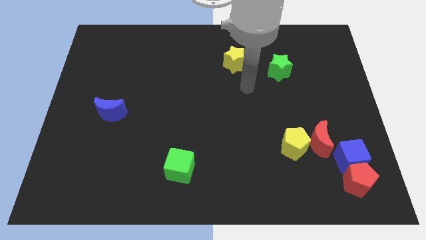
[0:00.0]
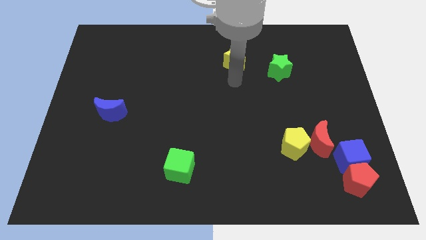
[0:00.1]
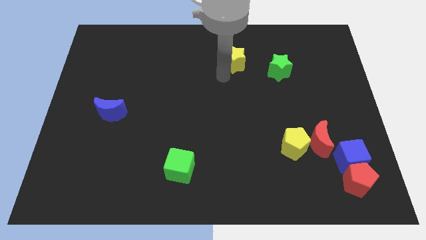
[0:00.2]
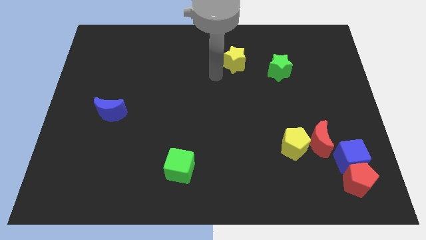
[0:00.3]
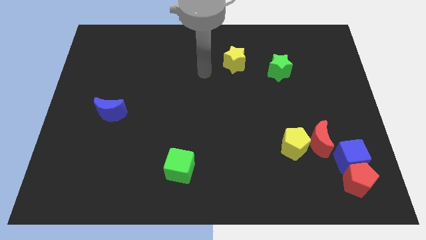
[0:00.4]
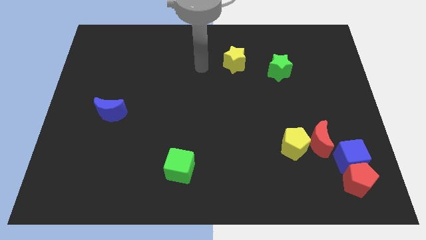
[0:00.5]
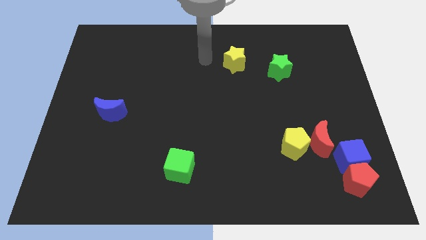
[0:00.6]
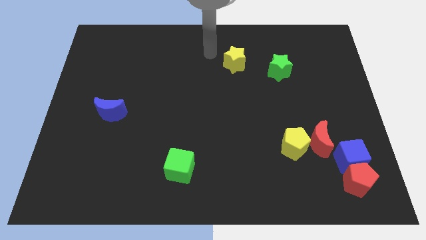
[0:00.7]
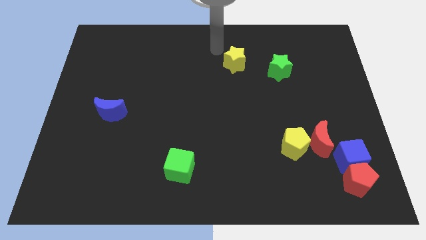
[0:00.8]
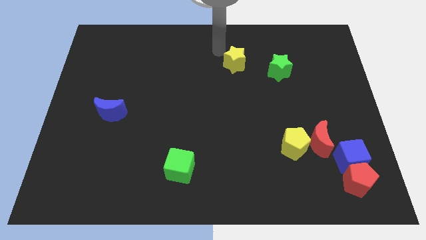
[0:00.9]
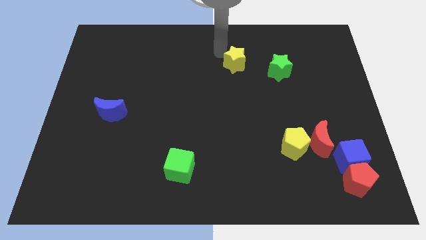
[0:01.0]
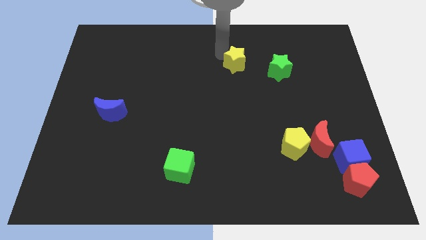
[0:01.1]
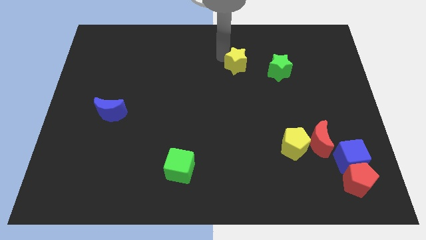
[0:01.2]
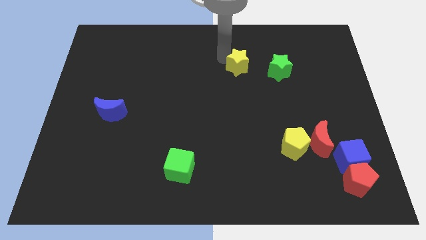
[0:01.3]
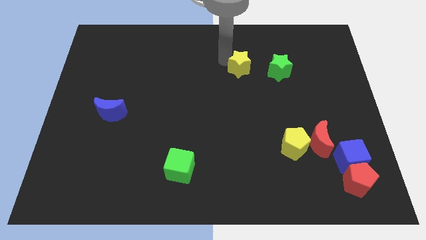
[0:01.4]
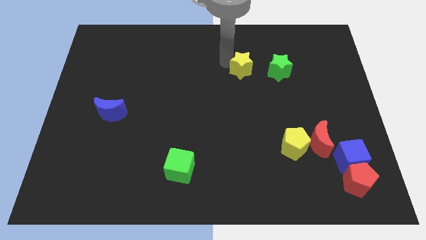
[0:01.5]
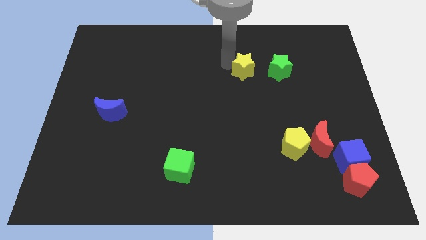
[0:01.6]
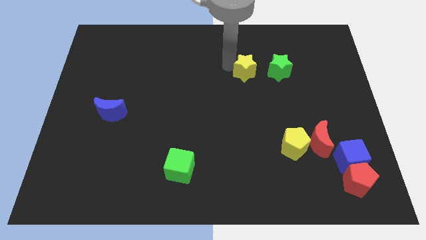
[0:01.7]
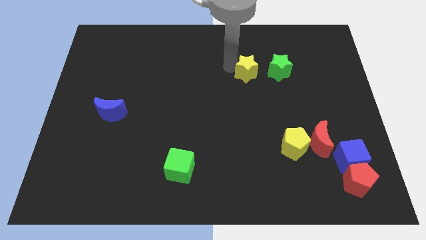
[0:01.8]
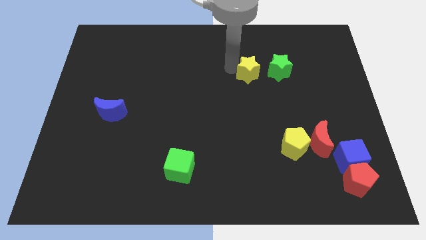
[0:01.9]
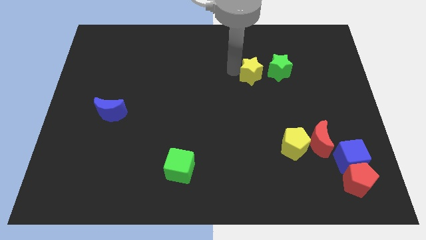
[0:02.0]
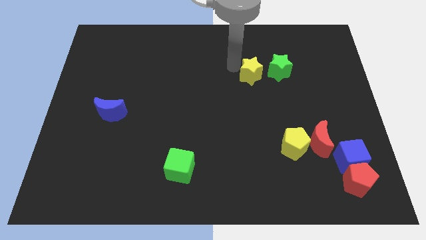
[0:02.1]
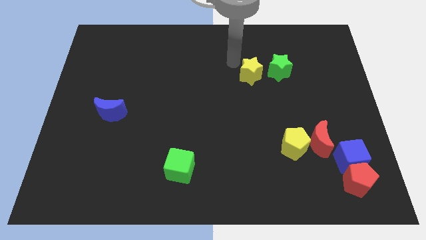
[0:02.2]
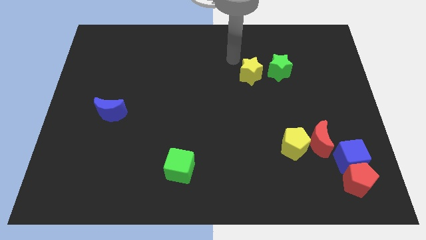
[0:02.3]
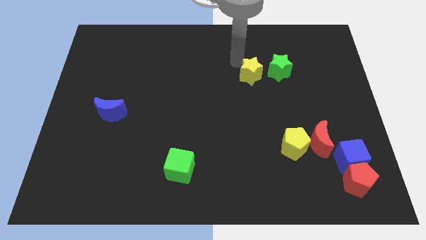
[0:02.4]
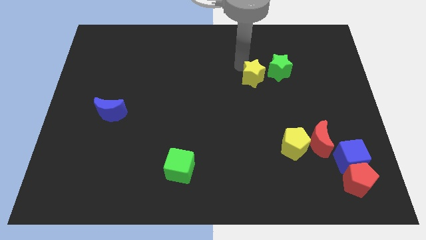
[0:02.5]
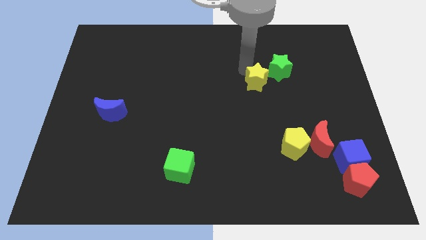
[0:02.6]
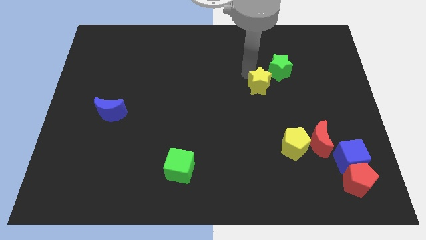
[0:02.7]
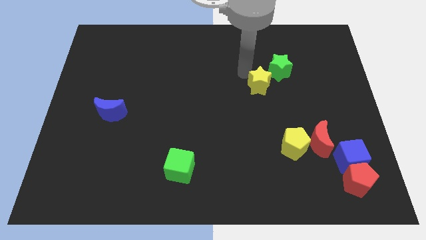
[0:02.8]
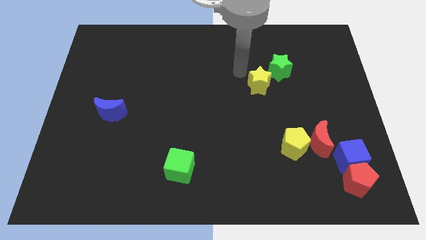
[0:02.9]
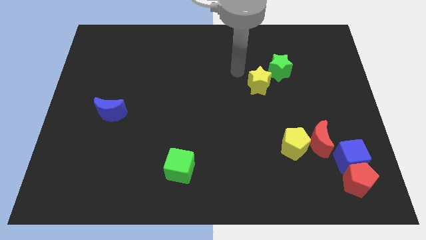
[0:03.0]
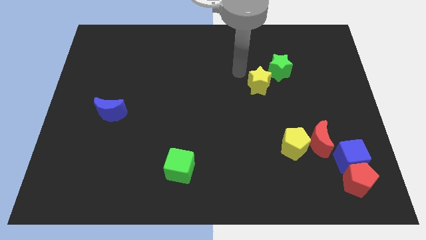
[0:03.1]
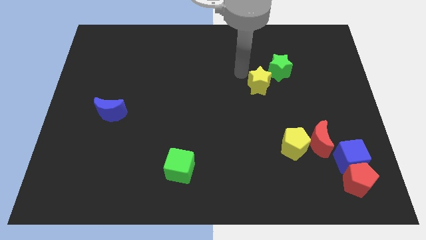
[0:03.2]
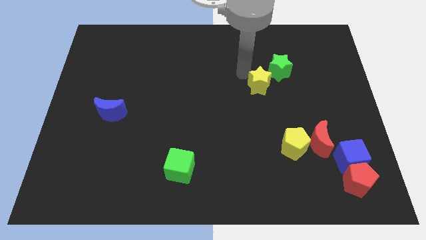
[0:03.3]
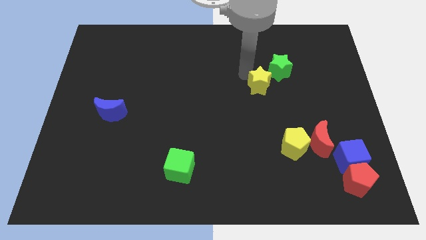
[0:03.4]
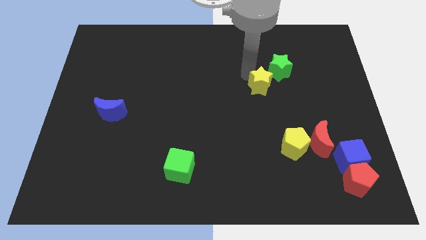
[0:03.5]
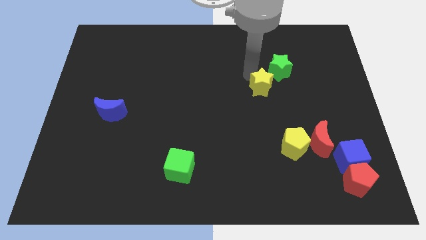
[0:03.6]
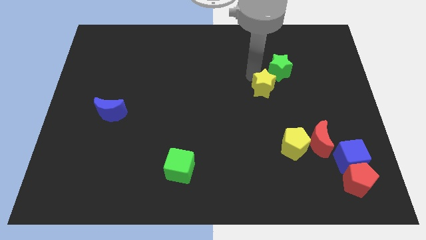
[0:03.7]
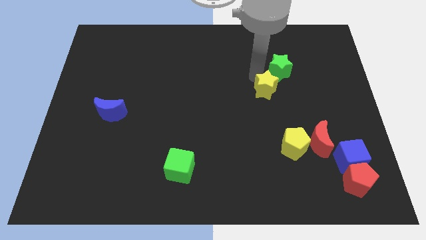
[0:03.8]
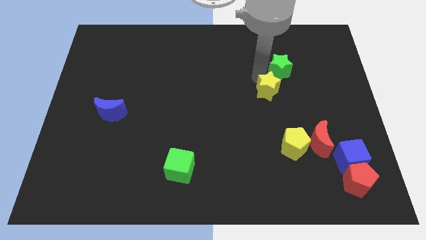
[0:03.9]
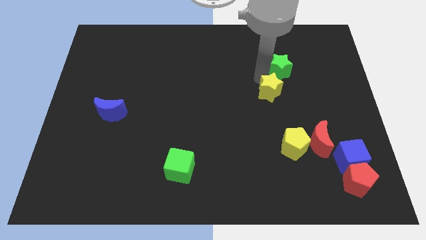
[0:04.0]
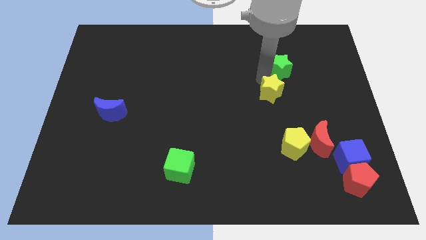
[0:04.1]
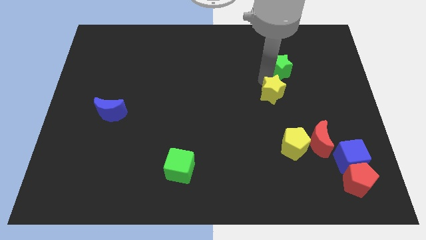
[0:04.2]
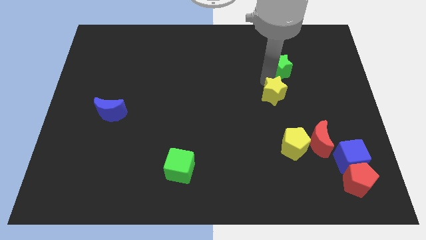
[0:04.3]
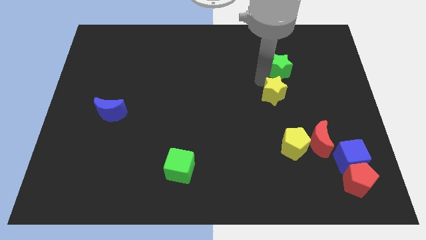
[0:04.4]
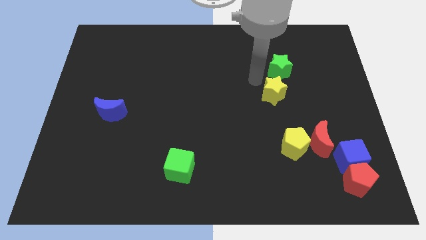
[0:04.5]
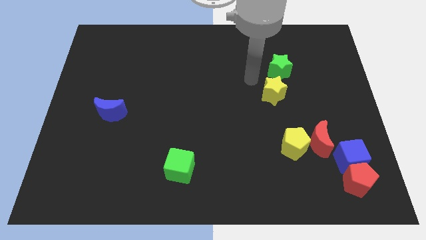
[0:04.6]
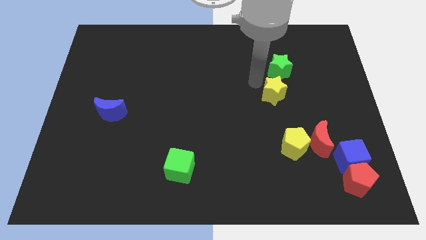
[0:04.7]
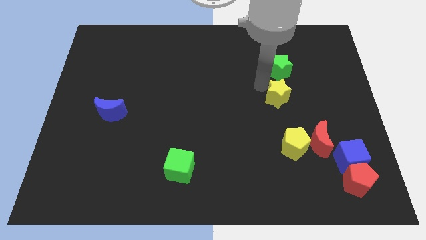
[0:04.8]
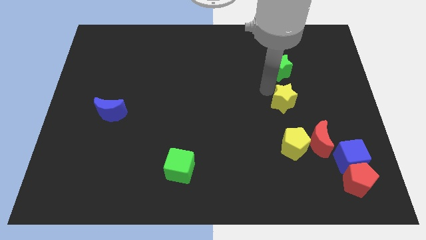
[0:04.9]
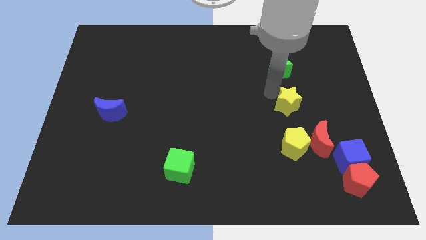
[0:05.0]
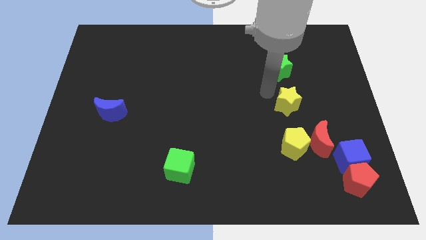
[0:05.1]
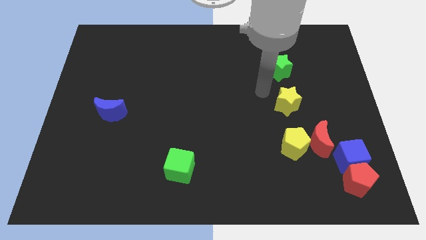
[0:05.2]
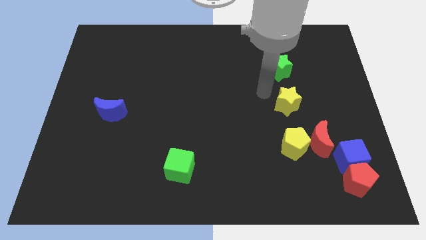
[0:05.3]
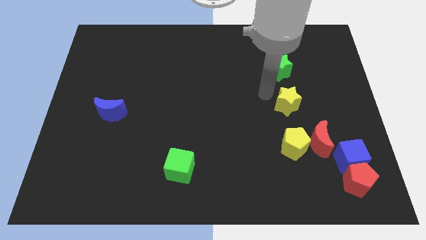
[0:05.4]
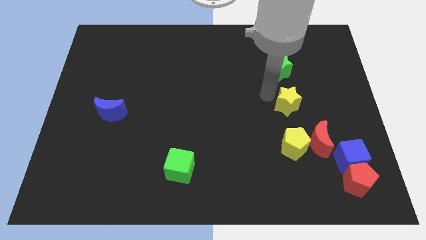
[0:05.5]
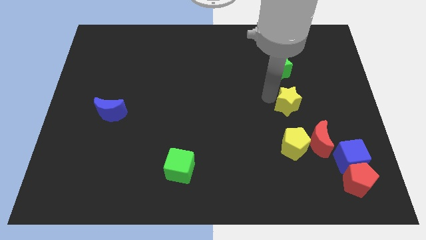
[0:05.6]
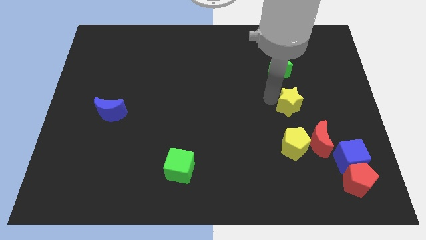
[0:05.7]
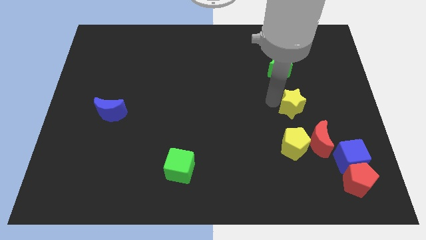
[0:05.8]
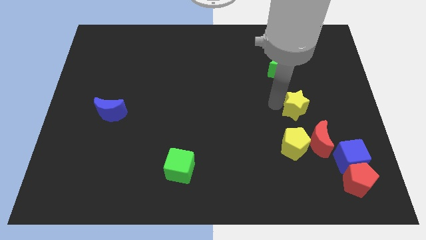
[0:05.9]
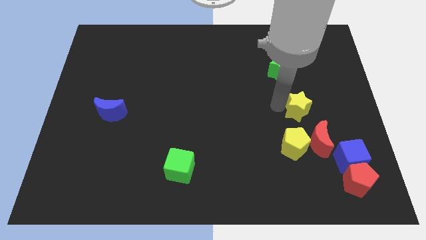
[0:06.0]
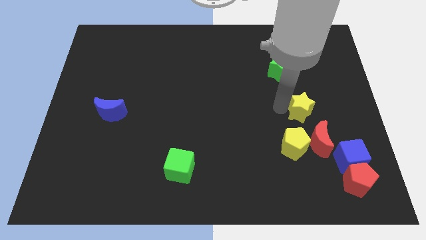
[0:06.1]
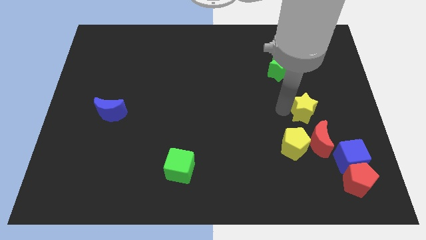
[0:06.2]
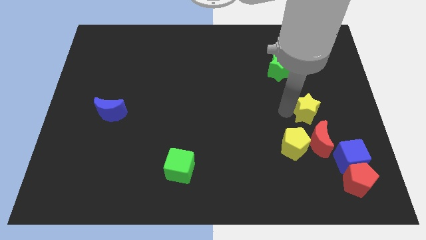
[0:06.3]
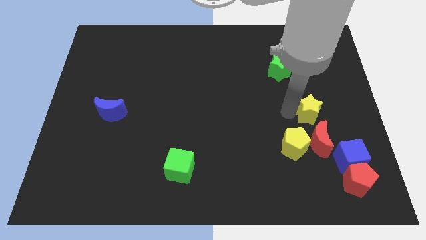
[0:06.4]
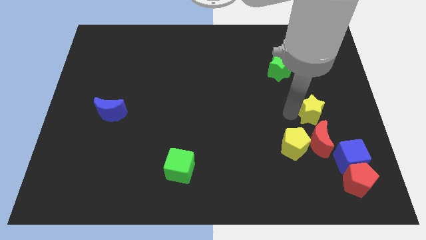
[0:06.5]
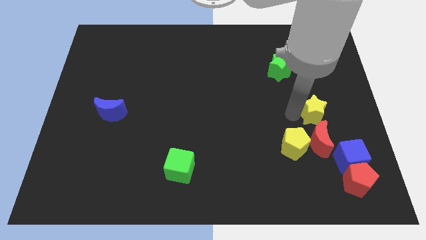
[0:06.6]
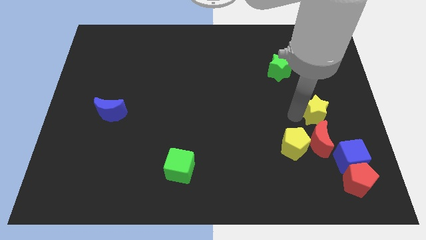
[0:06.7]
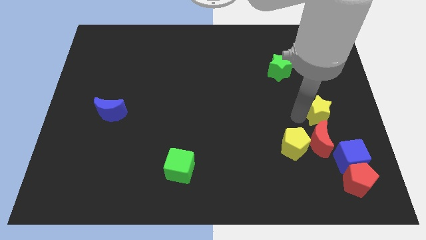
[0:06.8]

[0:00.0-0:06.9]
move the yellow star to the top right of the red moon

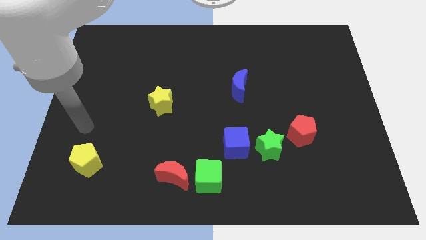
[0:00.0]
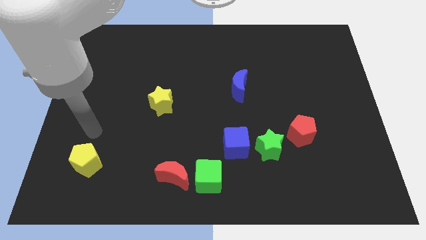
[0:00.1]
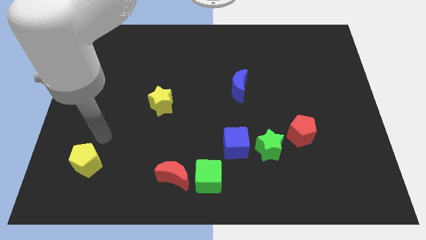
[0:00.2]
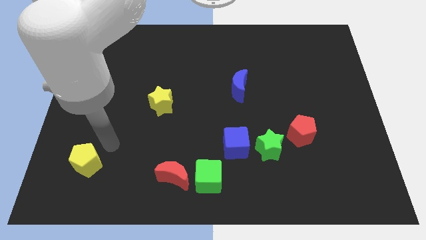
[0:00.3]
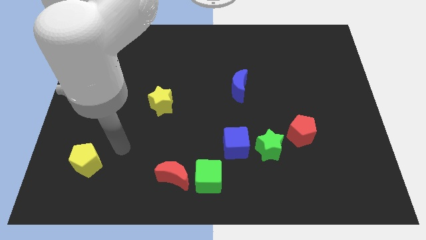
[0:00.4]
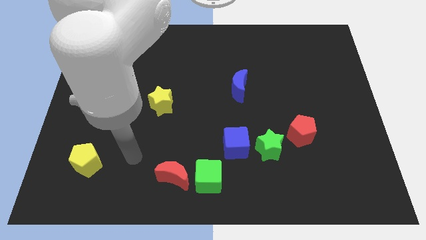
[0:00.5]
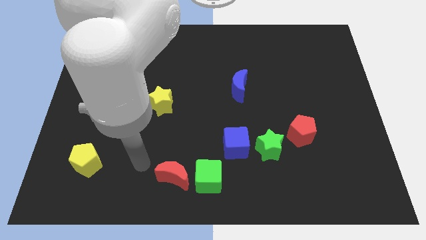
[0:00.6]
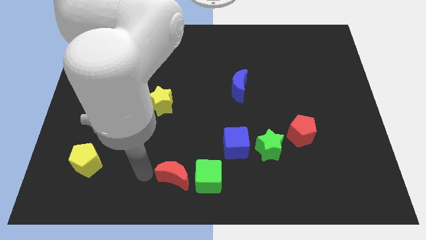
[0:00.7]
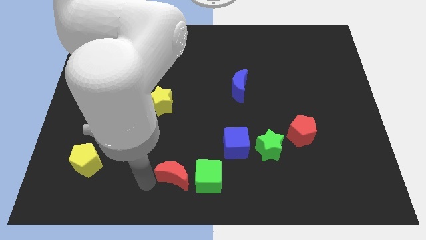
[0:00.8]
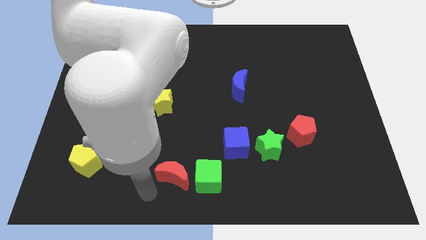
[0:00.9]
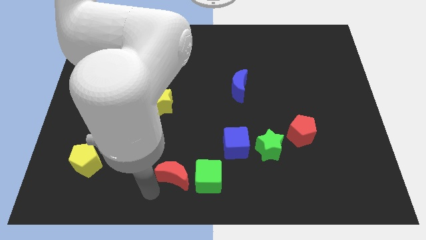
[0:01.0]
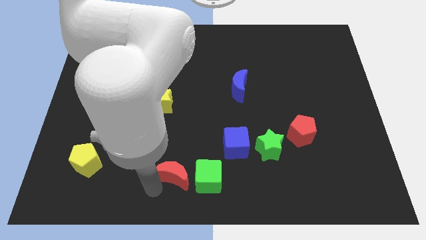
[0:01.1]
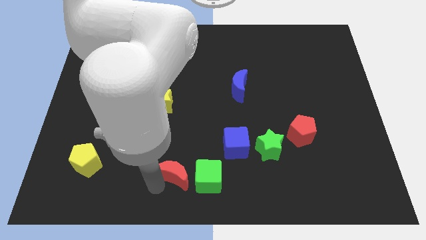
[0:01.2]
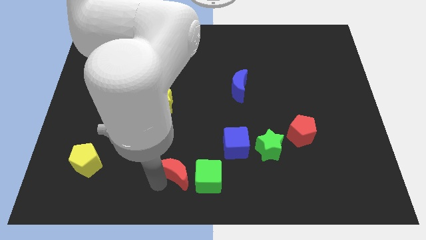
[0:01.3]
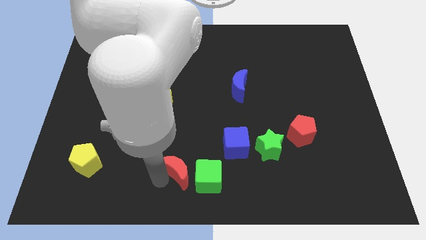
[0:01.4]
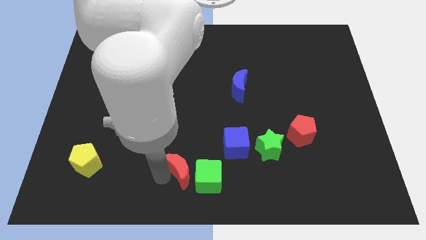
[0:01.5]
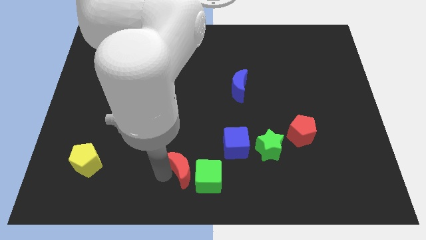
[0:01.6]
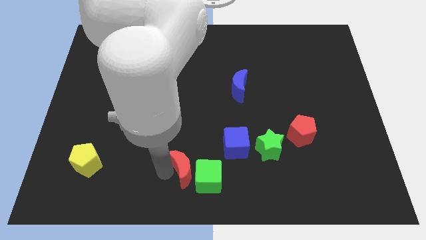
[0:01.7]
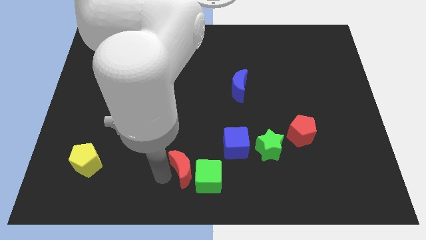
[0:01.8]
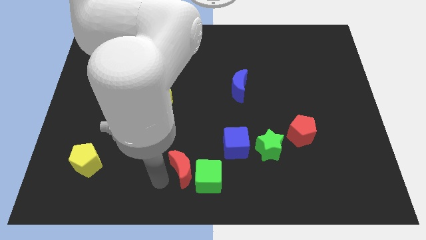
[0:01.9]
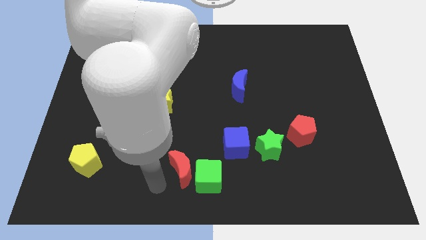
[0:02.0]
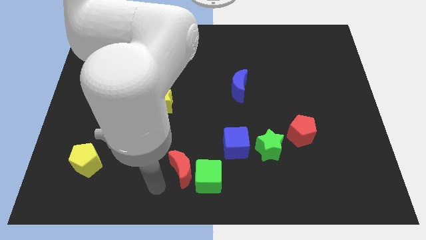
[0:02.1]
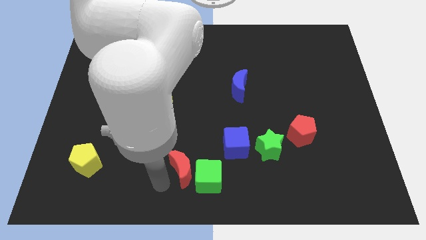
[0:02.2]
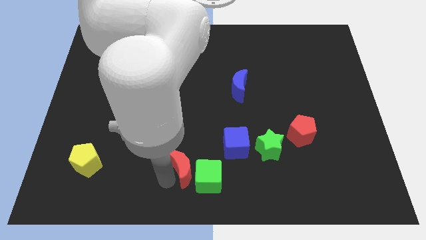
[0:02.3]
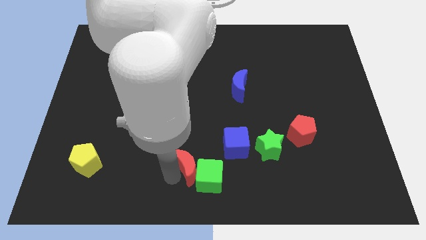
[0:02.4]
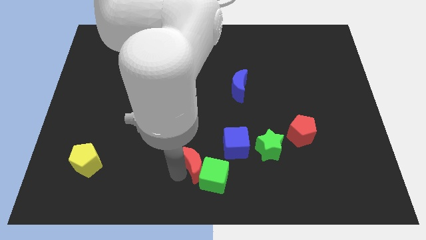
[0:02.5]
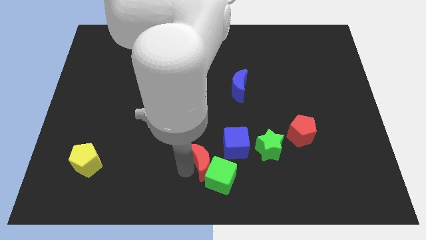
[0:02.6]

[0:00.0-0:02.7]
move the red moon just left of the green star
